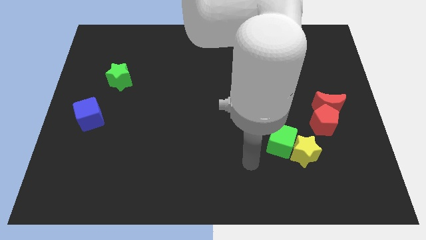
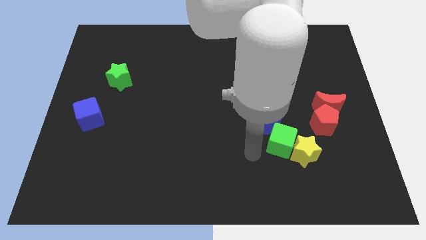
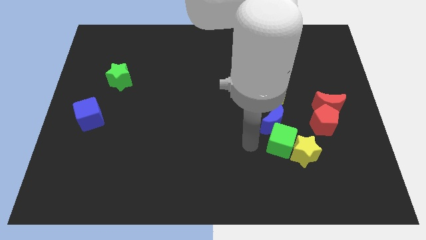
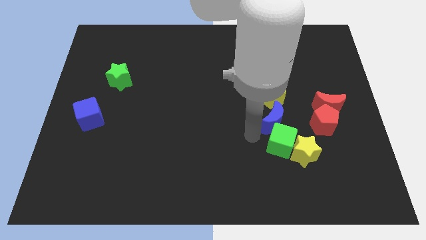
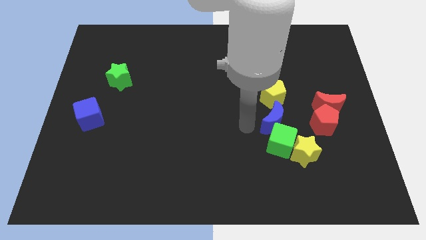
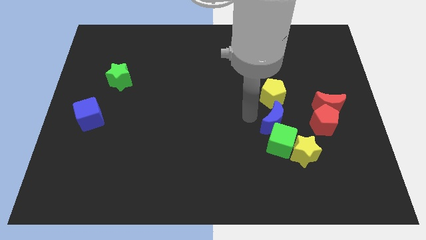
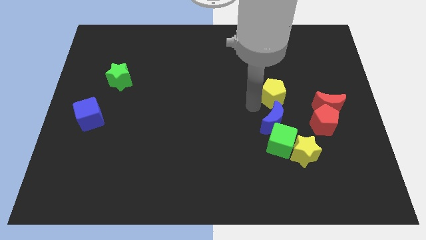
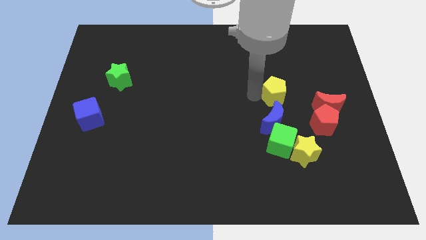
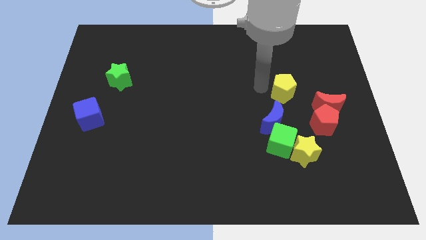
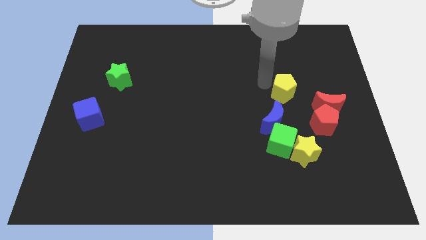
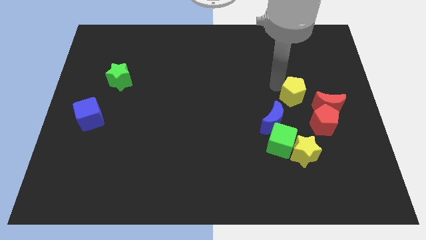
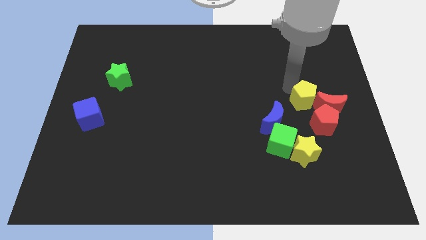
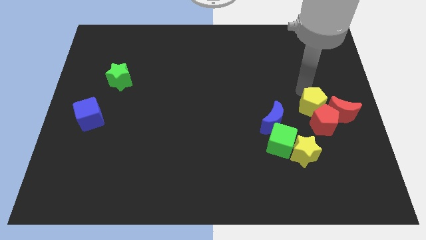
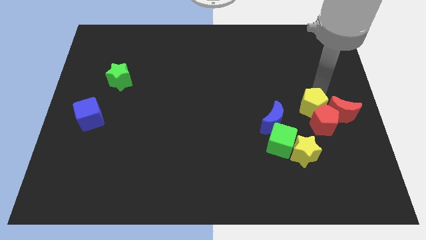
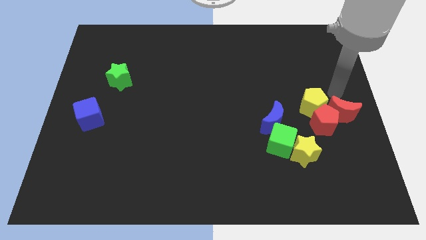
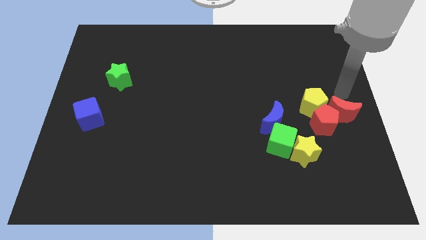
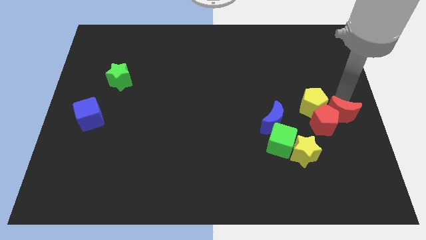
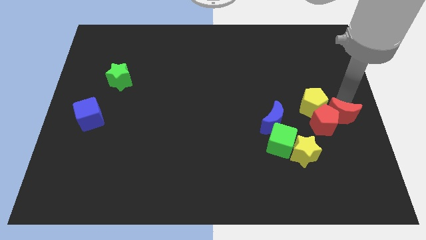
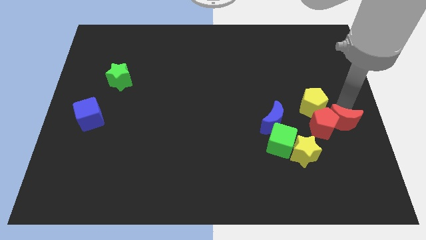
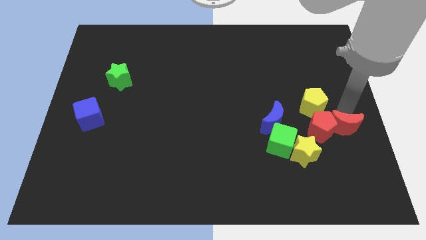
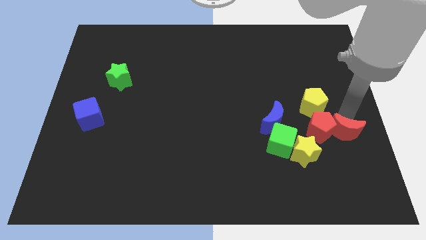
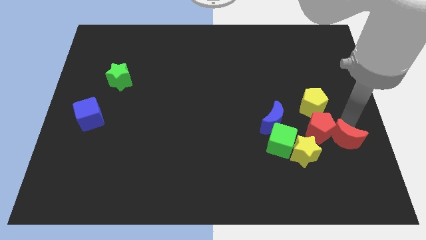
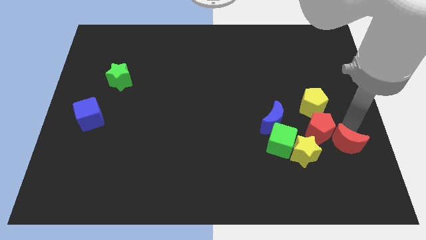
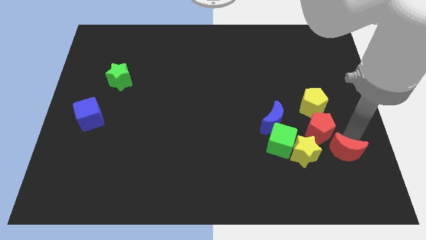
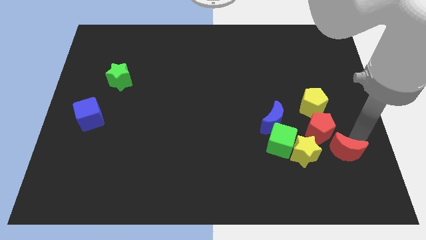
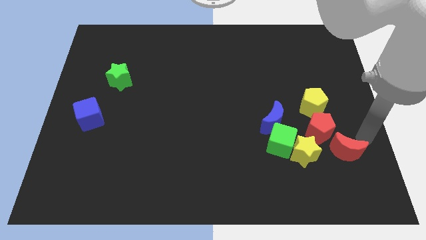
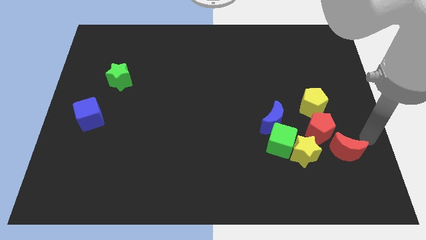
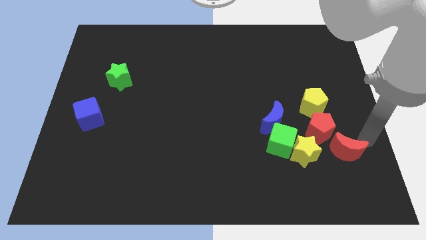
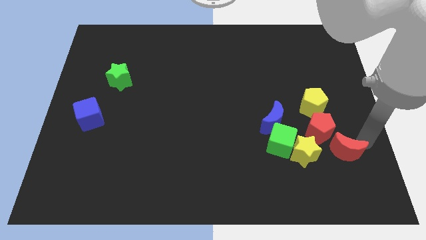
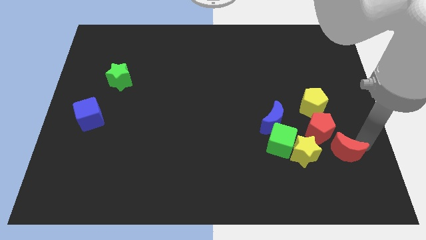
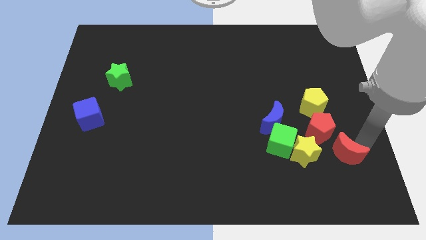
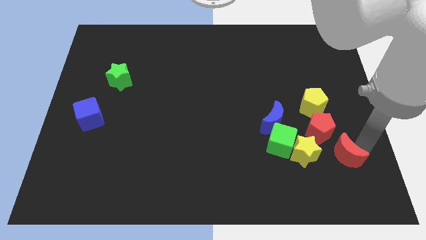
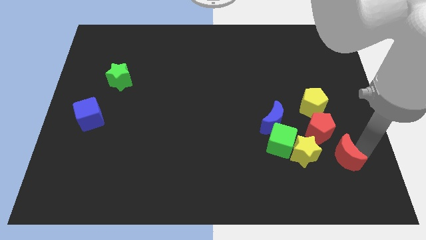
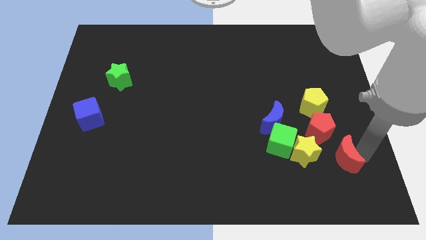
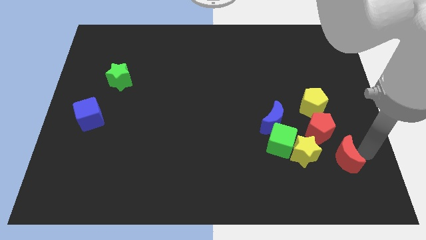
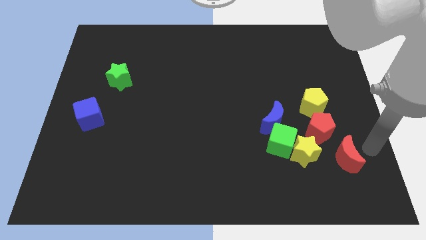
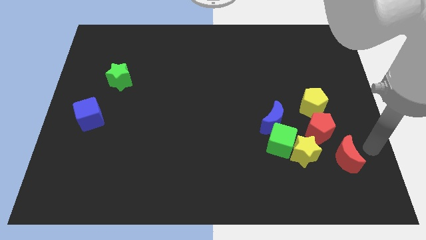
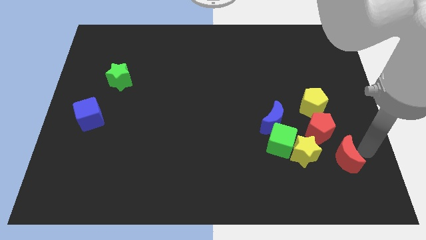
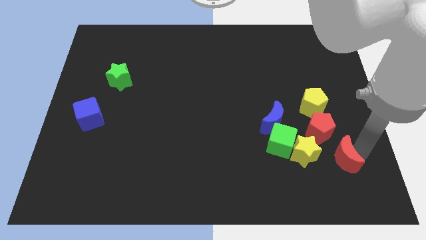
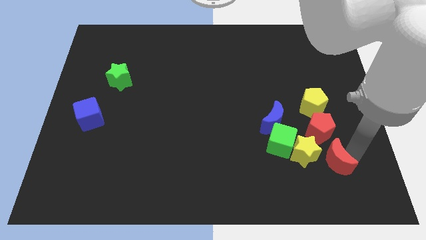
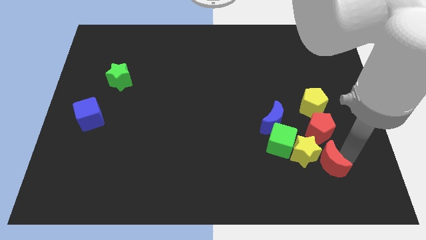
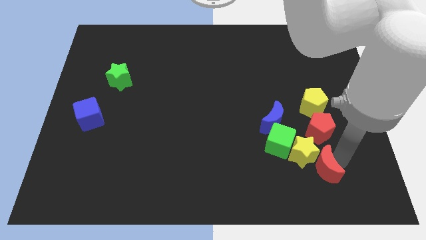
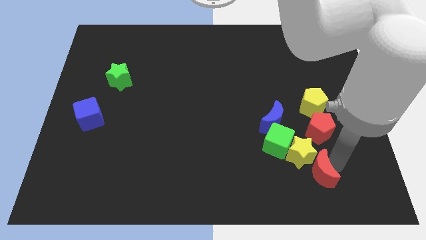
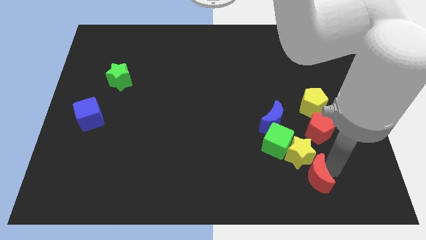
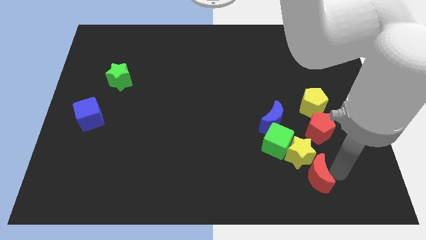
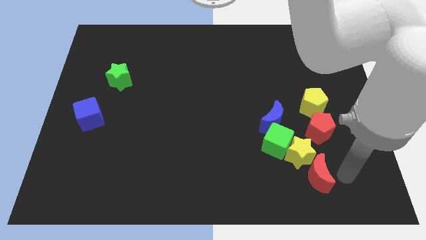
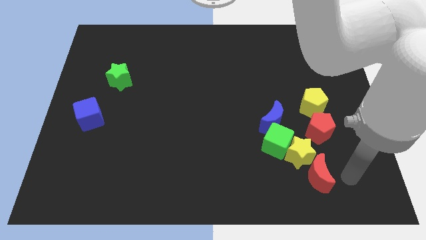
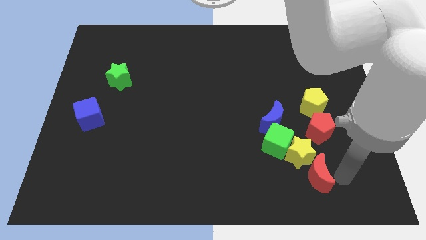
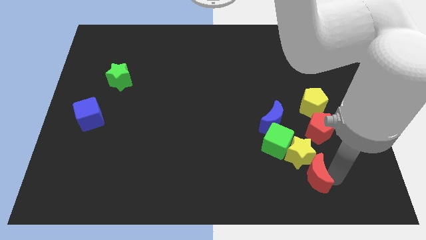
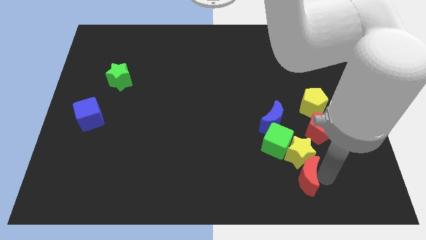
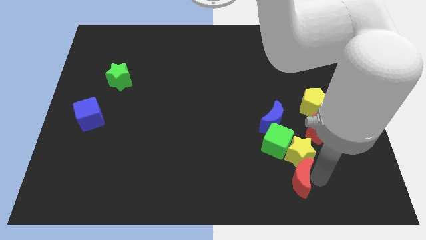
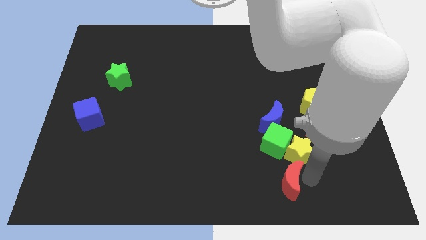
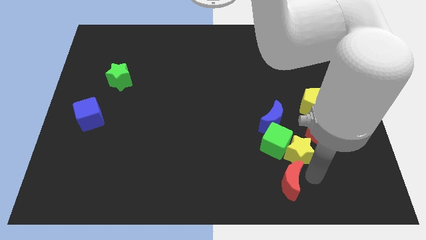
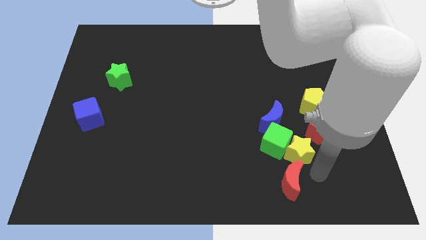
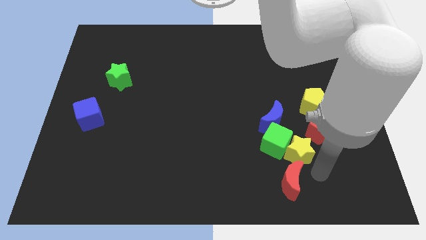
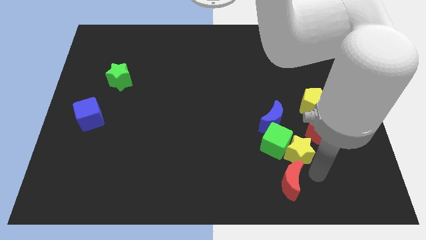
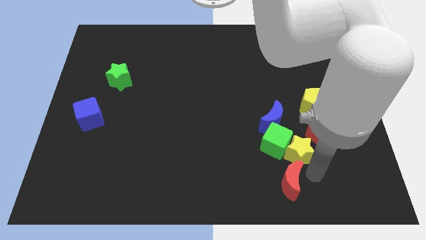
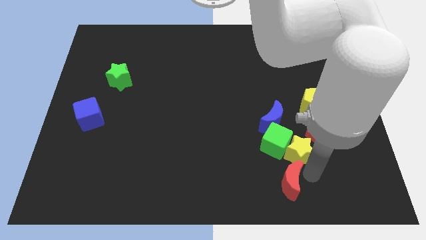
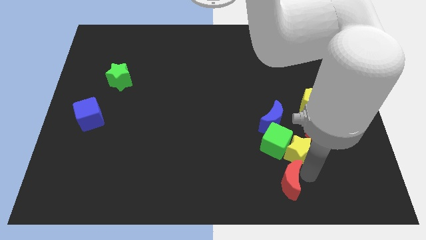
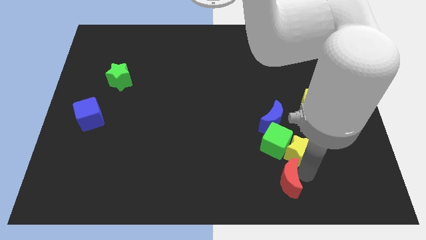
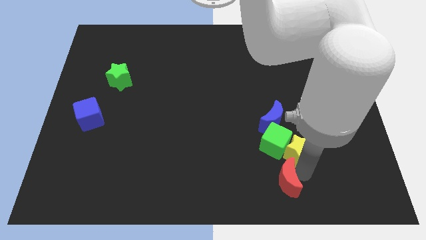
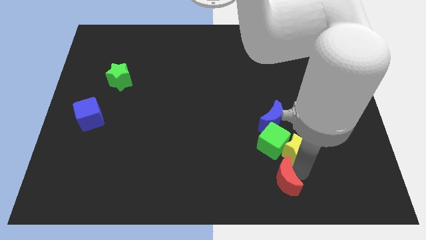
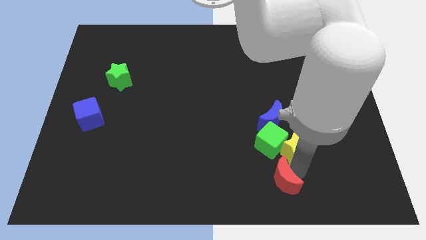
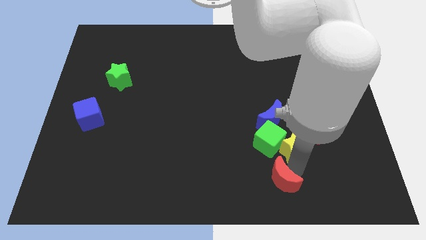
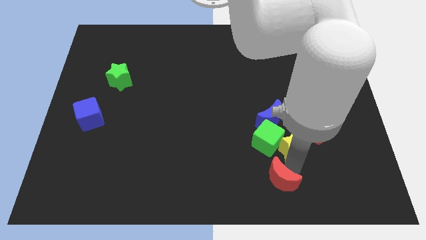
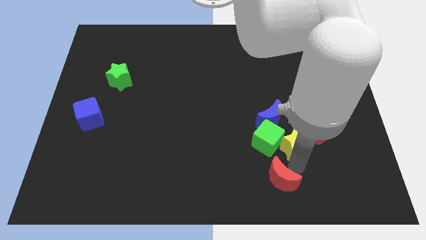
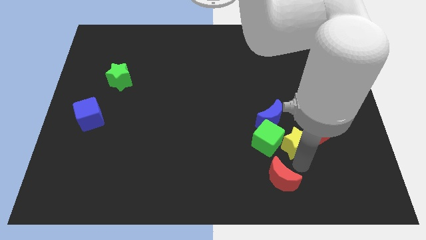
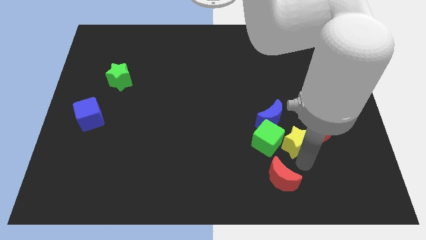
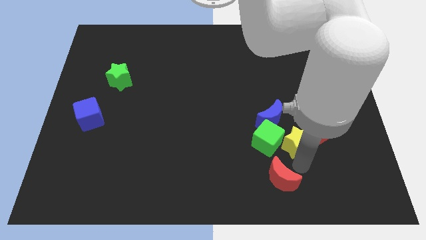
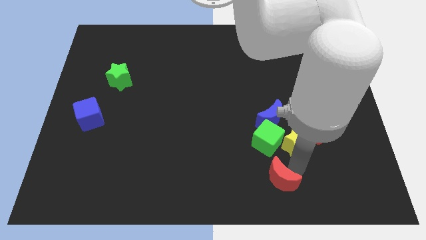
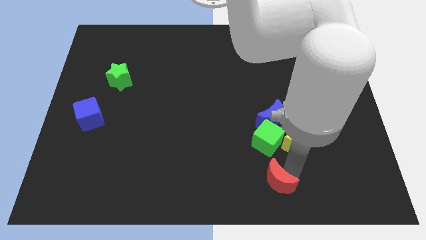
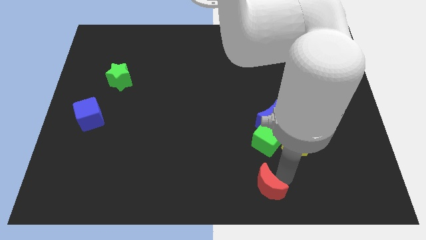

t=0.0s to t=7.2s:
slide the red moon to the bottom
